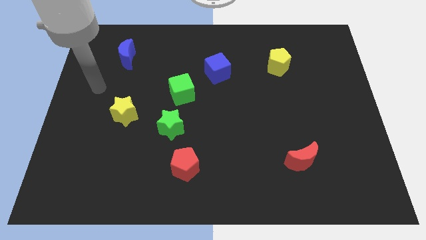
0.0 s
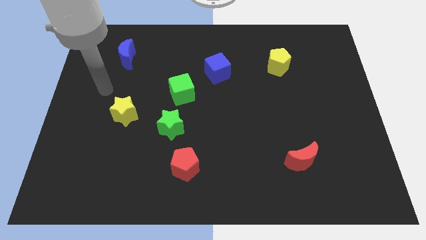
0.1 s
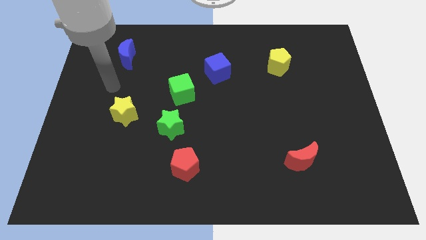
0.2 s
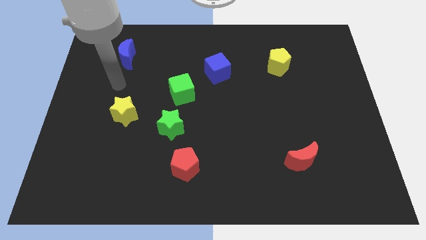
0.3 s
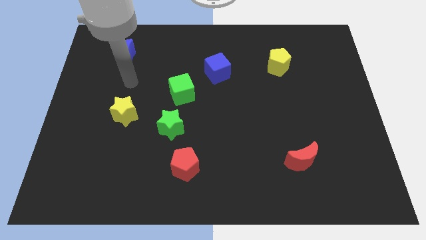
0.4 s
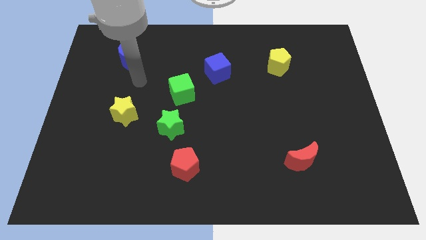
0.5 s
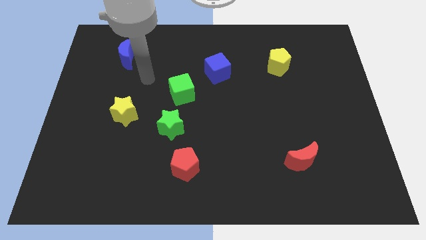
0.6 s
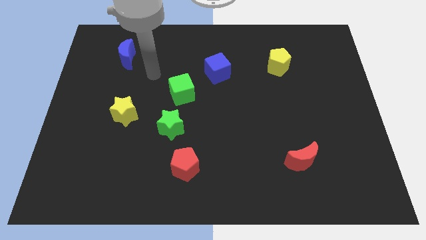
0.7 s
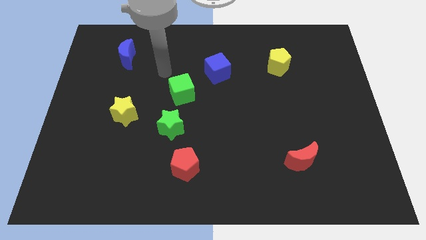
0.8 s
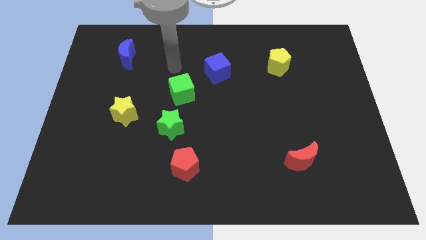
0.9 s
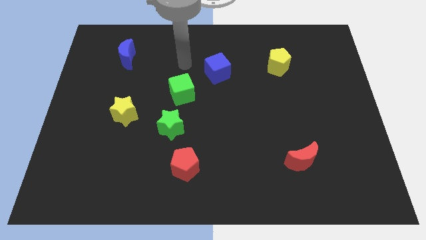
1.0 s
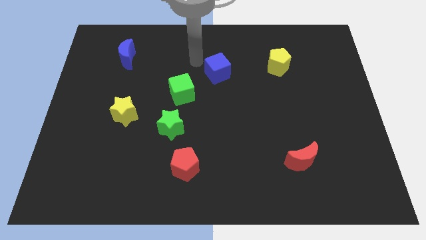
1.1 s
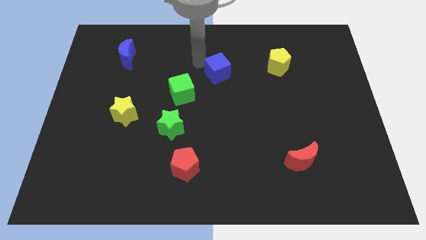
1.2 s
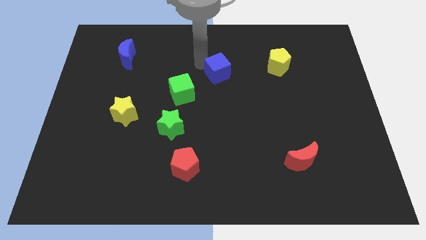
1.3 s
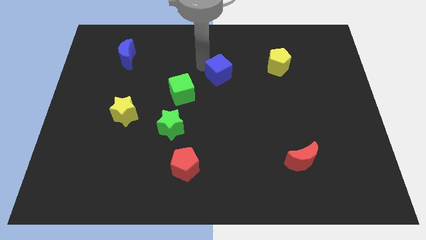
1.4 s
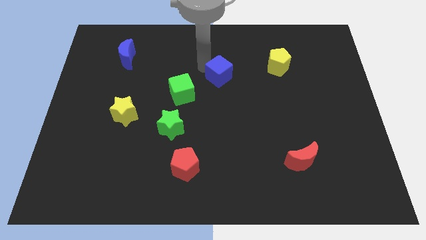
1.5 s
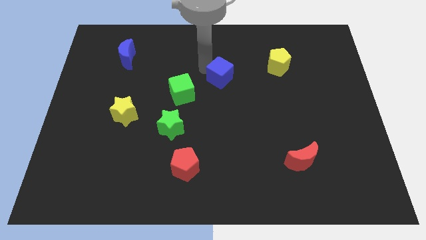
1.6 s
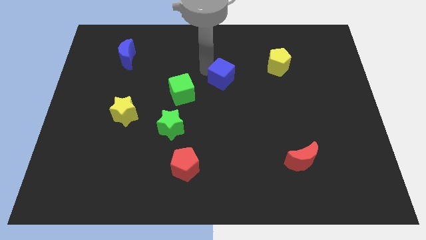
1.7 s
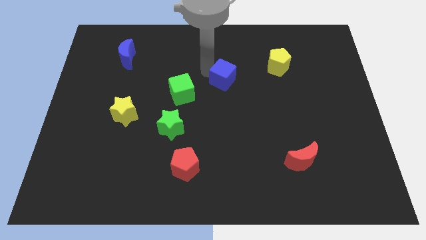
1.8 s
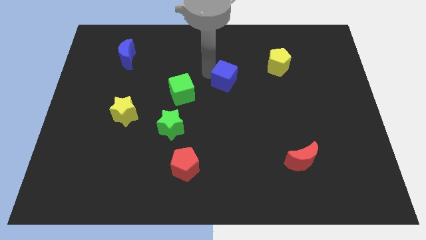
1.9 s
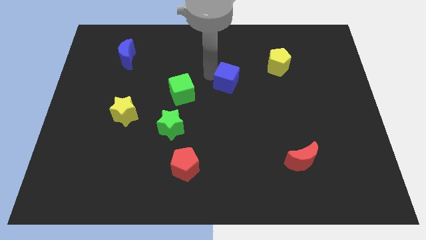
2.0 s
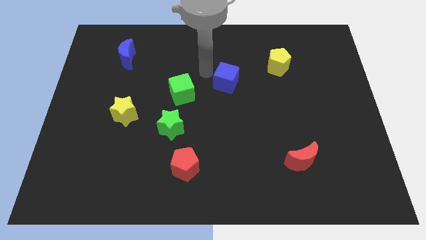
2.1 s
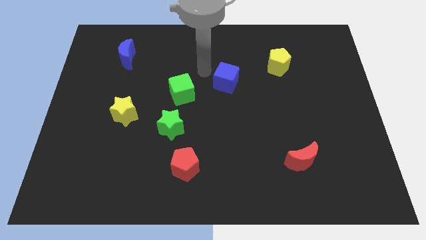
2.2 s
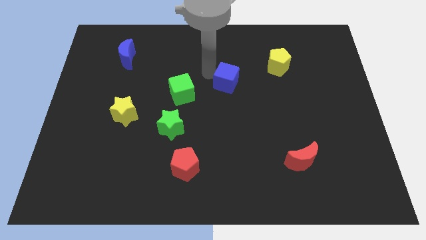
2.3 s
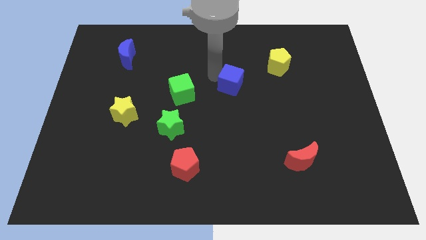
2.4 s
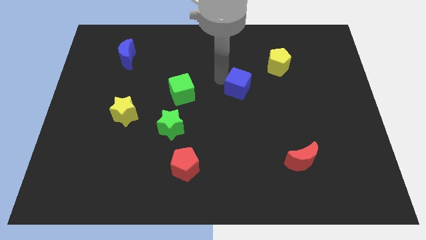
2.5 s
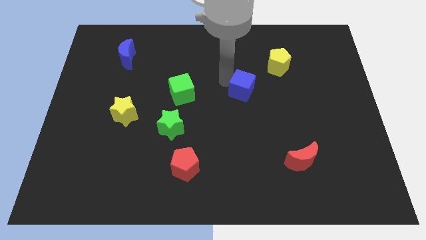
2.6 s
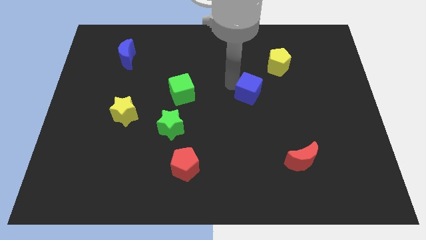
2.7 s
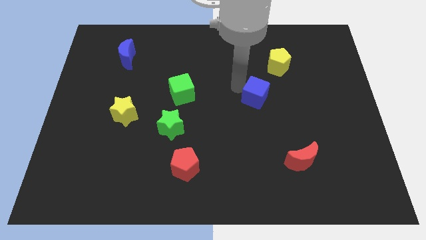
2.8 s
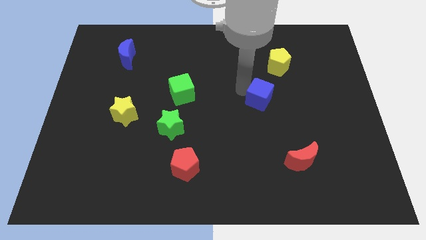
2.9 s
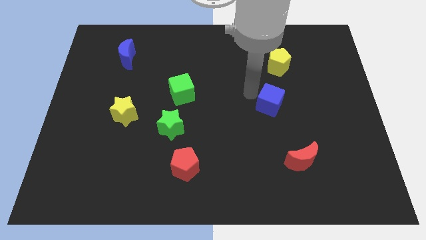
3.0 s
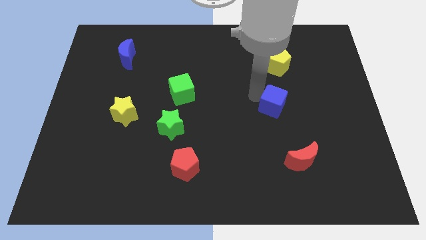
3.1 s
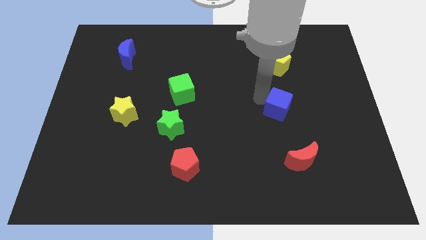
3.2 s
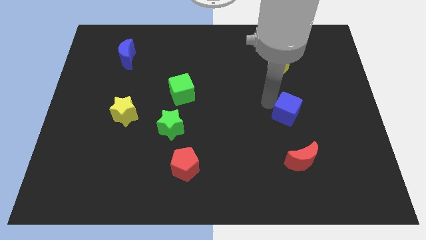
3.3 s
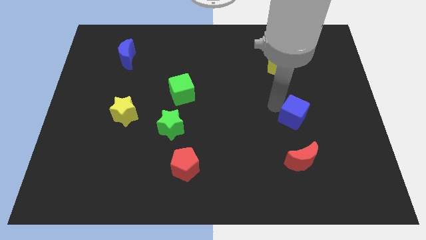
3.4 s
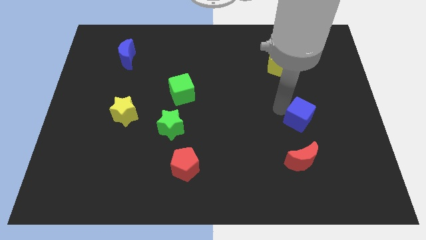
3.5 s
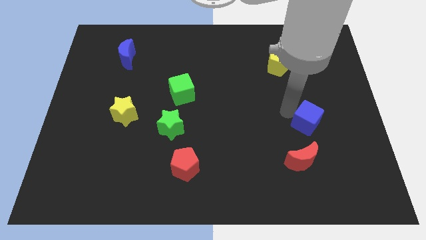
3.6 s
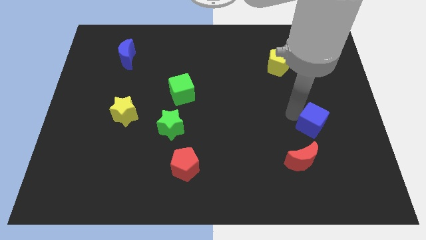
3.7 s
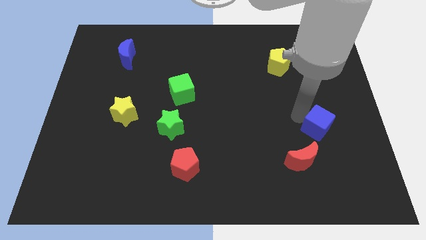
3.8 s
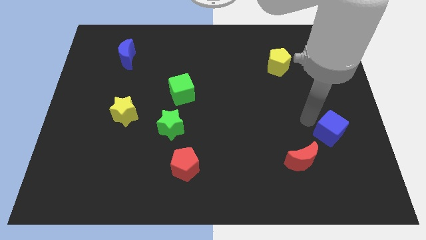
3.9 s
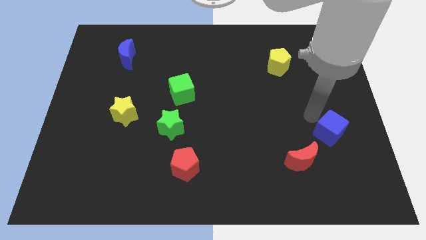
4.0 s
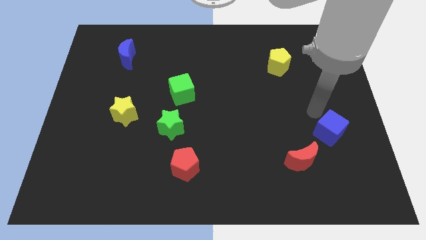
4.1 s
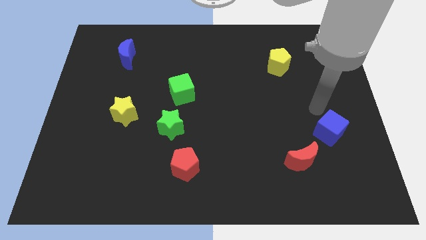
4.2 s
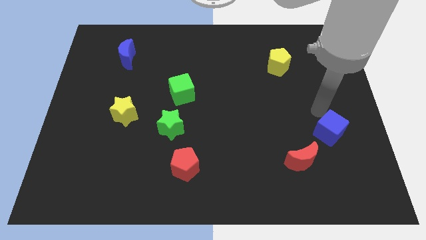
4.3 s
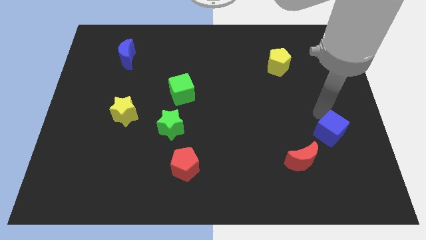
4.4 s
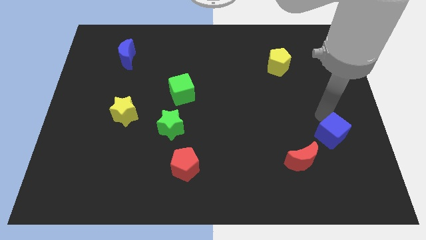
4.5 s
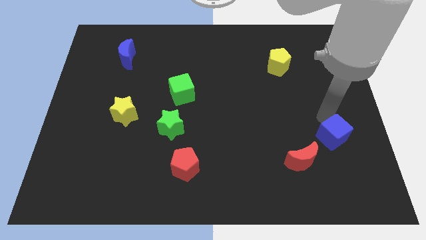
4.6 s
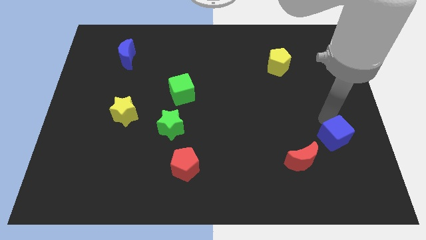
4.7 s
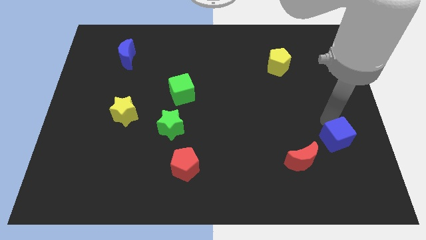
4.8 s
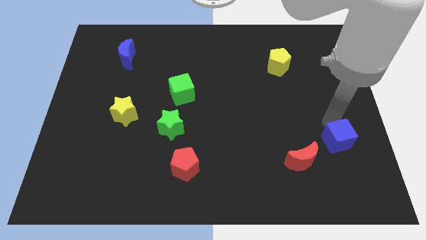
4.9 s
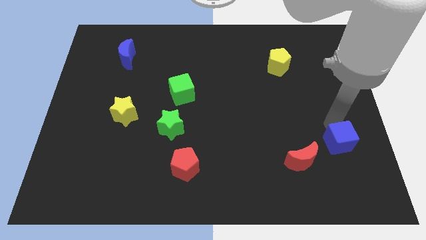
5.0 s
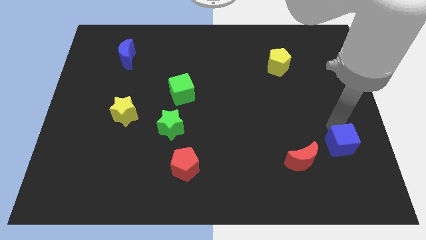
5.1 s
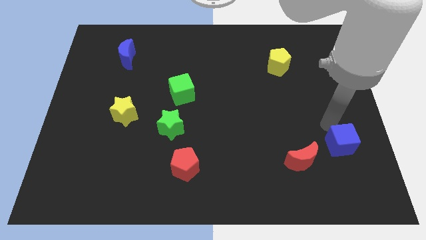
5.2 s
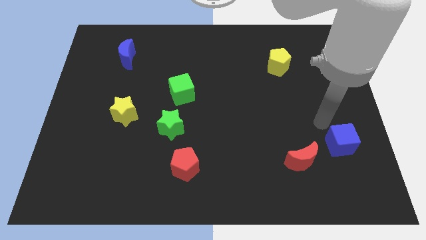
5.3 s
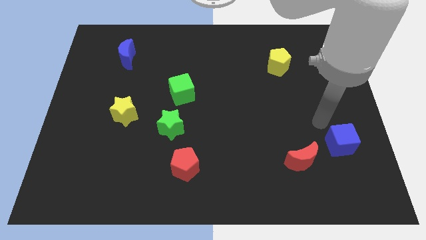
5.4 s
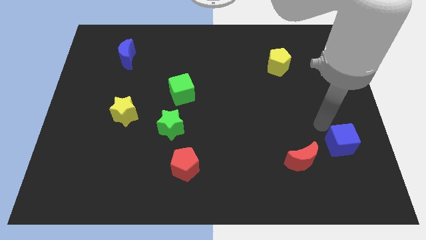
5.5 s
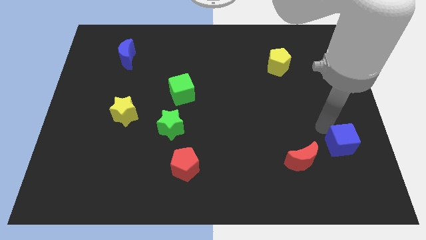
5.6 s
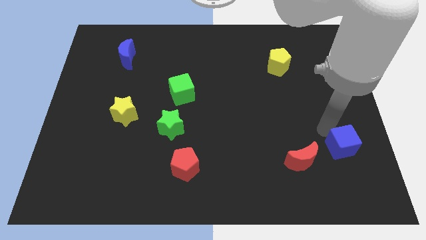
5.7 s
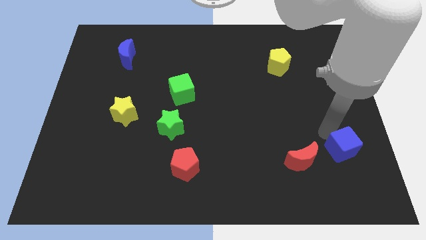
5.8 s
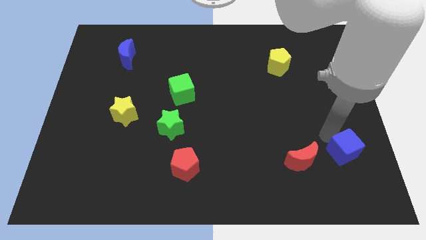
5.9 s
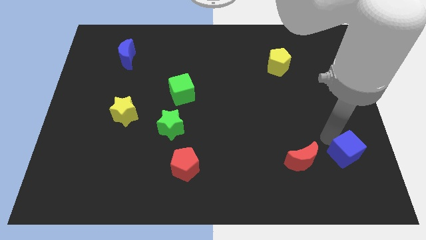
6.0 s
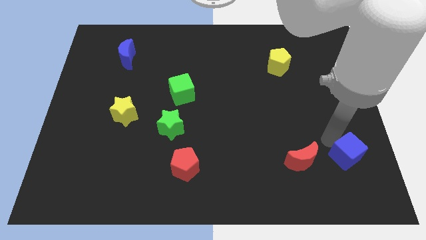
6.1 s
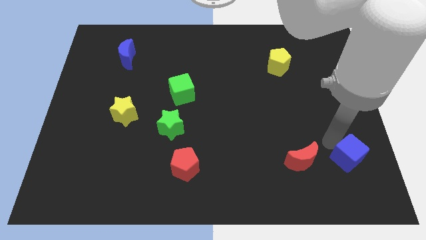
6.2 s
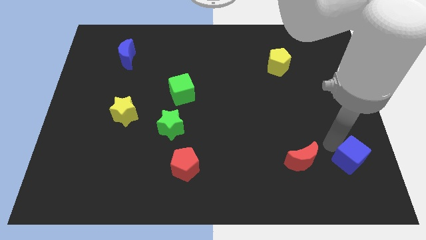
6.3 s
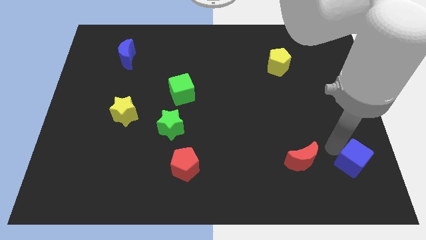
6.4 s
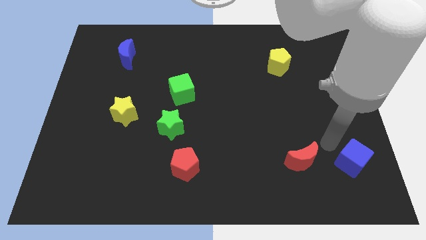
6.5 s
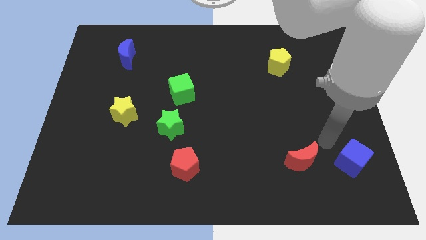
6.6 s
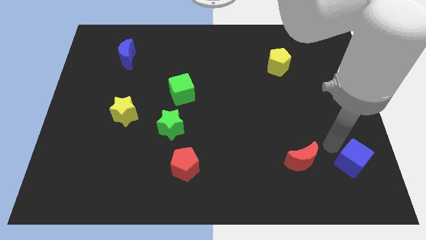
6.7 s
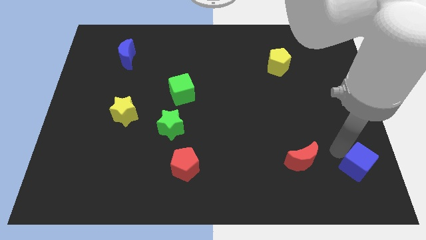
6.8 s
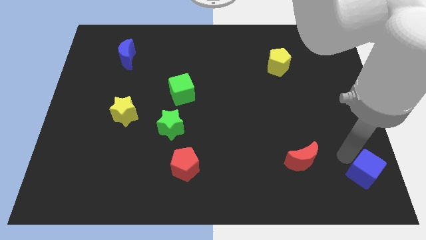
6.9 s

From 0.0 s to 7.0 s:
move the blue cube to the bottom right
